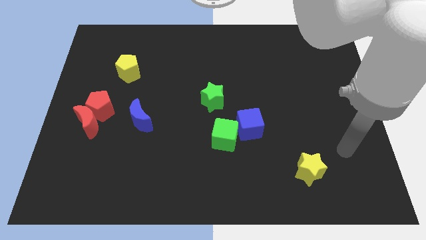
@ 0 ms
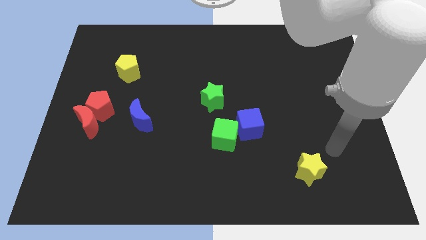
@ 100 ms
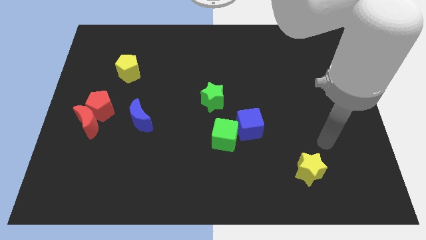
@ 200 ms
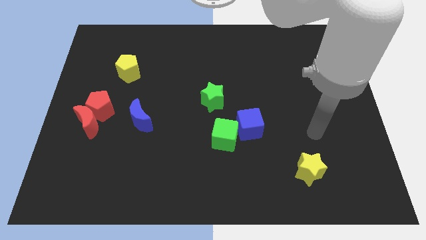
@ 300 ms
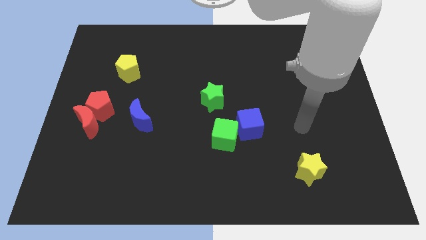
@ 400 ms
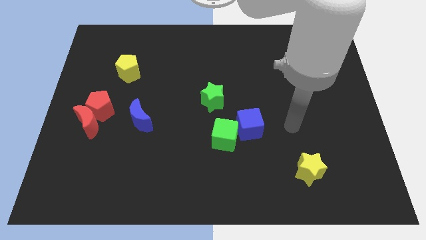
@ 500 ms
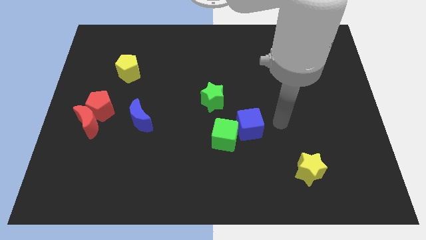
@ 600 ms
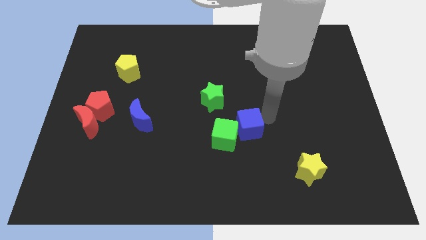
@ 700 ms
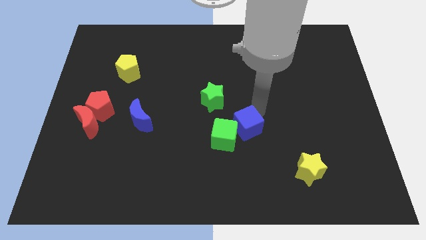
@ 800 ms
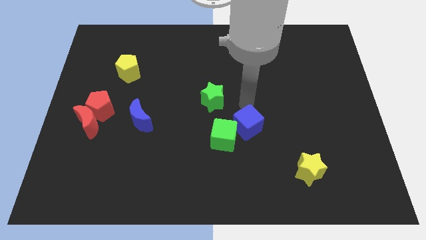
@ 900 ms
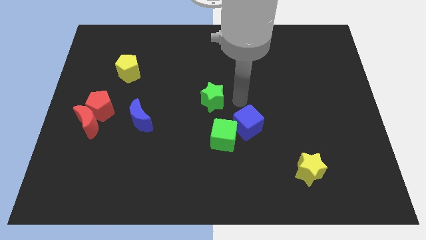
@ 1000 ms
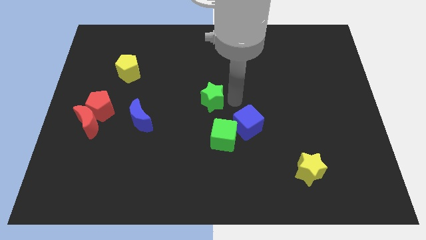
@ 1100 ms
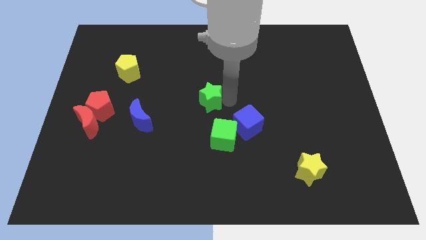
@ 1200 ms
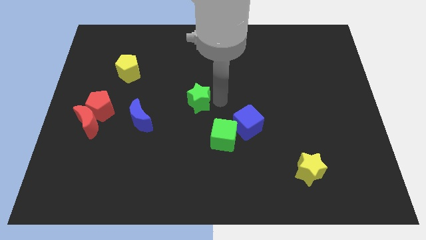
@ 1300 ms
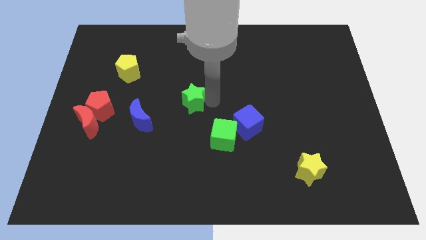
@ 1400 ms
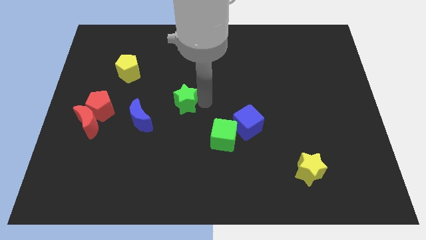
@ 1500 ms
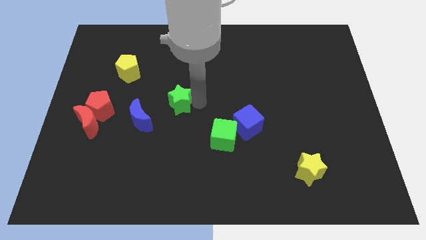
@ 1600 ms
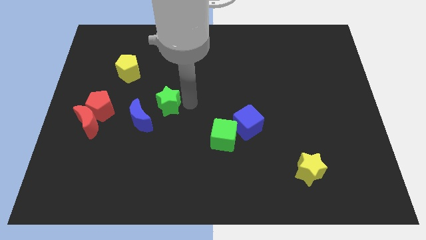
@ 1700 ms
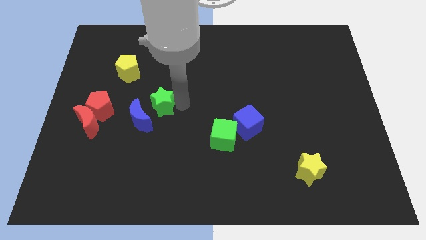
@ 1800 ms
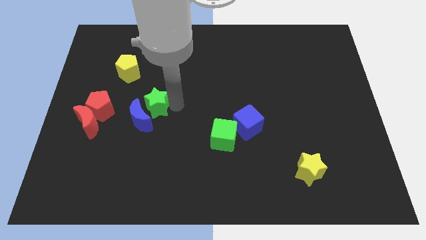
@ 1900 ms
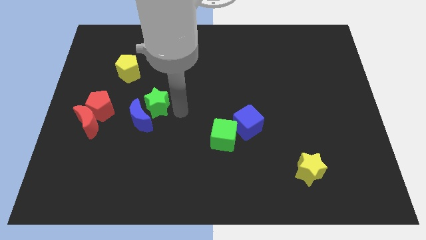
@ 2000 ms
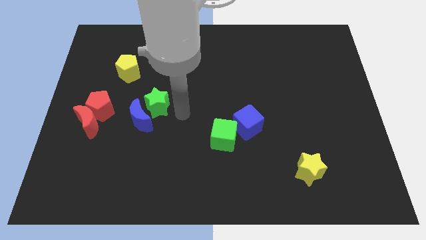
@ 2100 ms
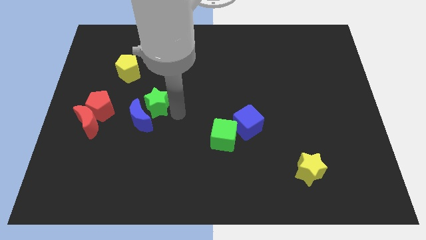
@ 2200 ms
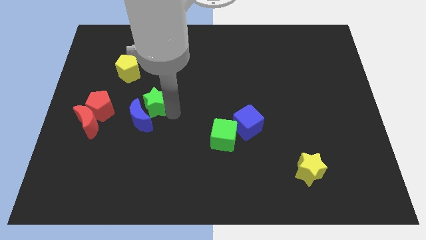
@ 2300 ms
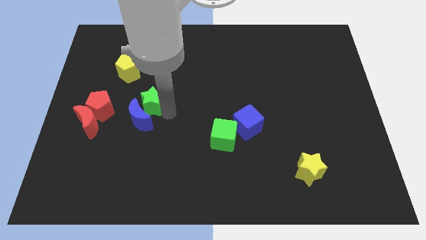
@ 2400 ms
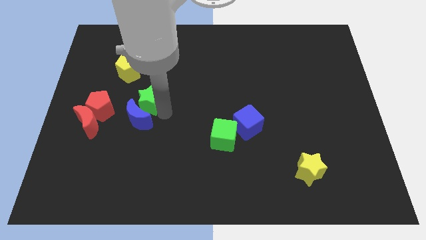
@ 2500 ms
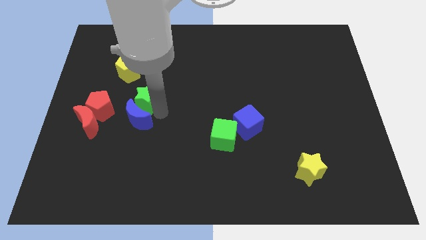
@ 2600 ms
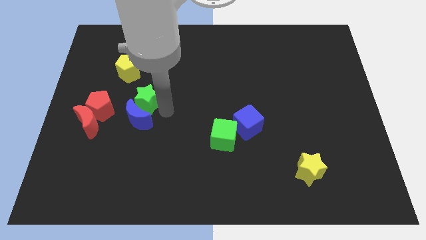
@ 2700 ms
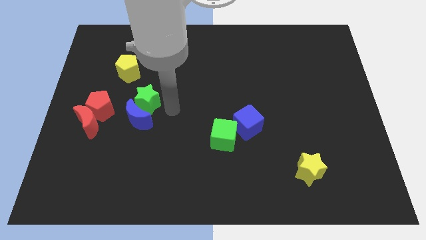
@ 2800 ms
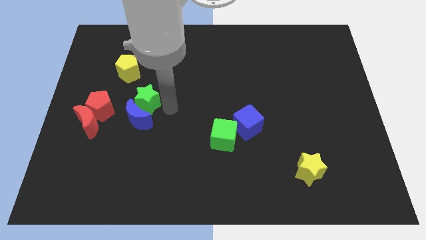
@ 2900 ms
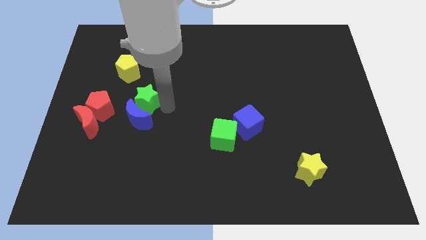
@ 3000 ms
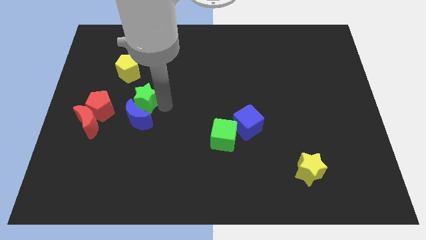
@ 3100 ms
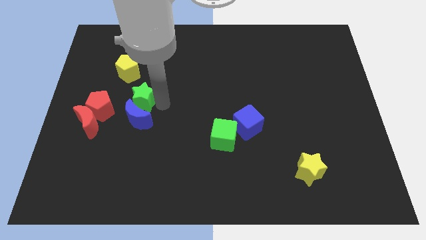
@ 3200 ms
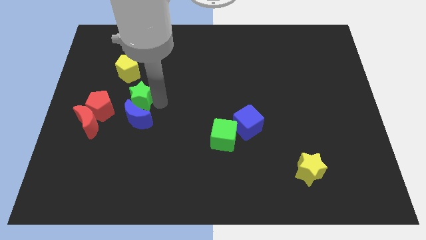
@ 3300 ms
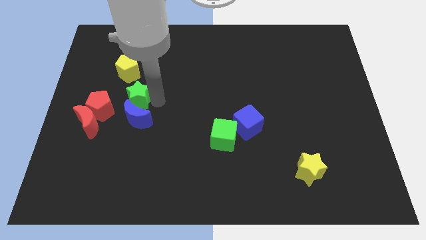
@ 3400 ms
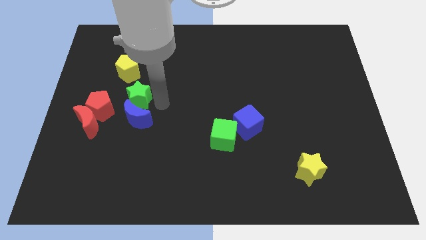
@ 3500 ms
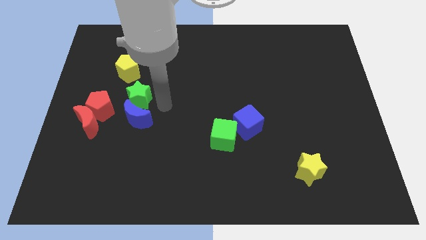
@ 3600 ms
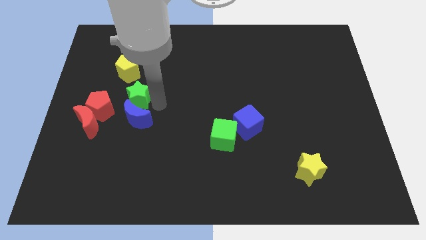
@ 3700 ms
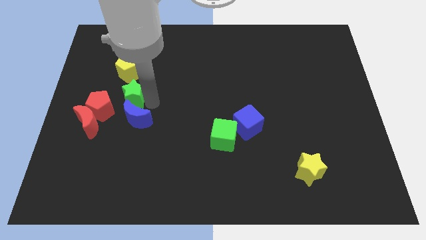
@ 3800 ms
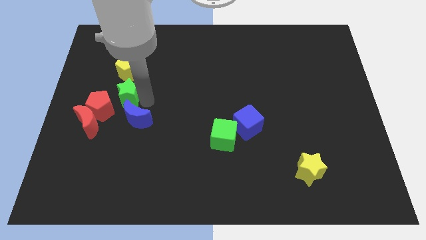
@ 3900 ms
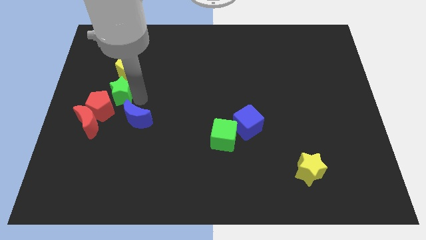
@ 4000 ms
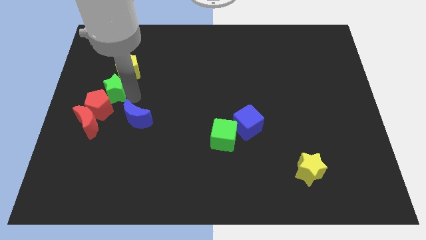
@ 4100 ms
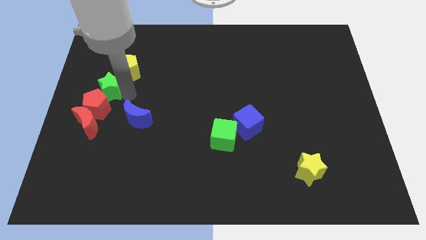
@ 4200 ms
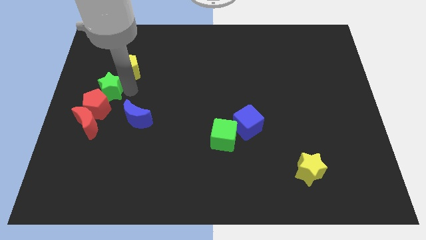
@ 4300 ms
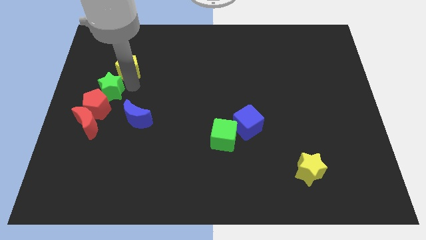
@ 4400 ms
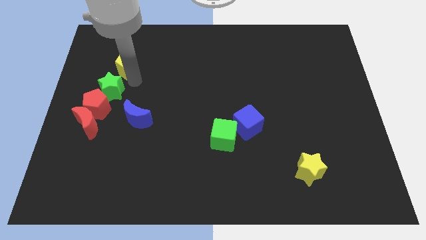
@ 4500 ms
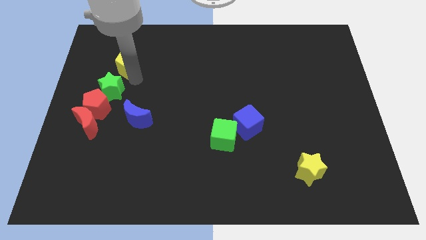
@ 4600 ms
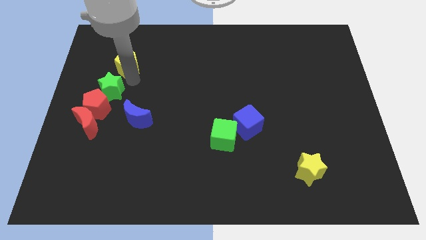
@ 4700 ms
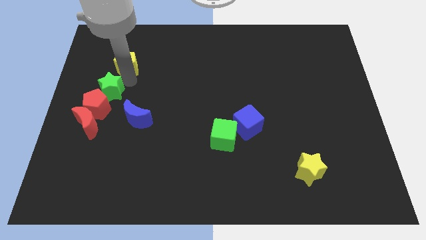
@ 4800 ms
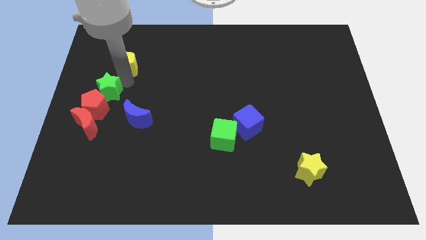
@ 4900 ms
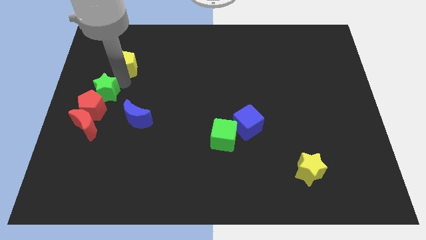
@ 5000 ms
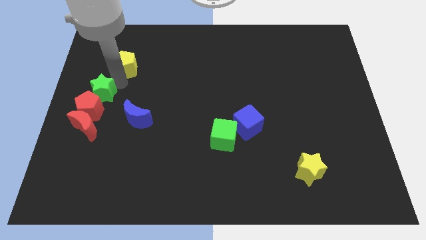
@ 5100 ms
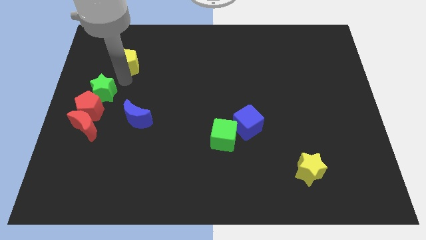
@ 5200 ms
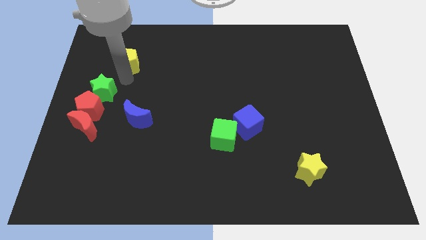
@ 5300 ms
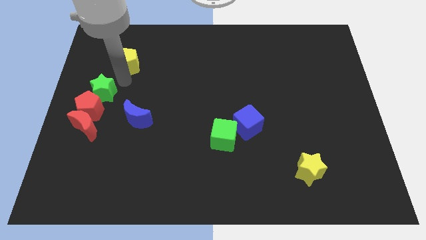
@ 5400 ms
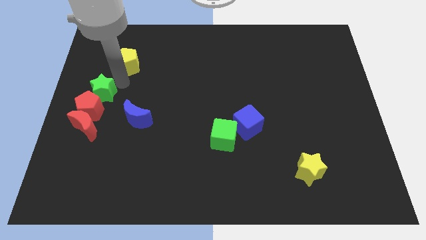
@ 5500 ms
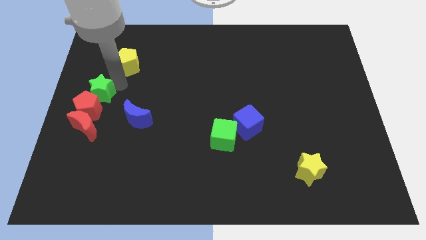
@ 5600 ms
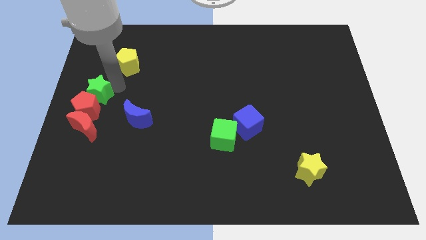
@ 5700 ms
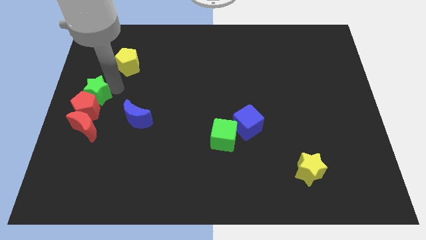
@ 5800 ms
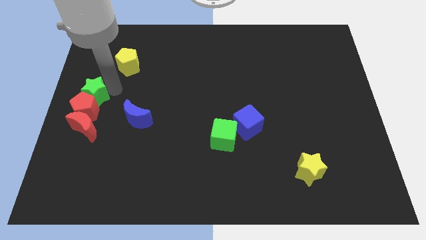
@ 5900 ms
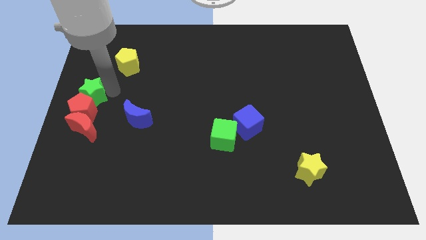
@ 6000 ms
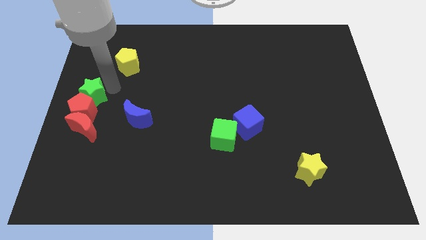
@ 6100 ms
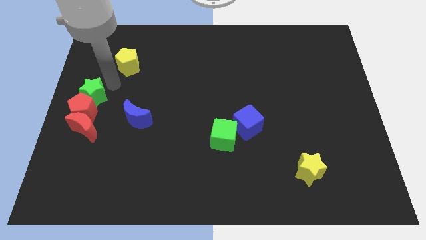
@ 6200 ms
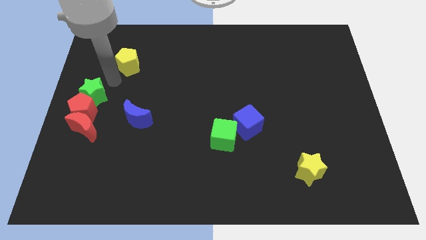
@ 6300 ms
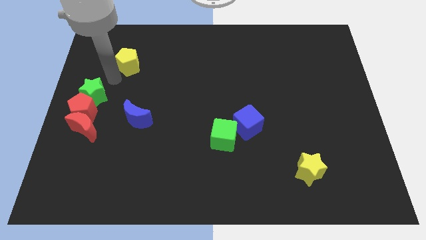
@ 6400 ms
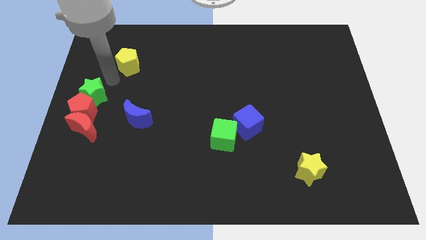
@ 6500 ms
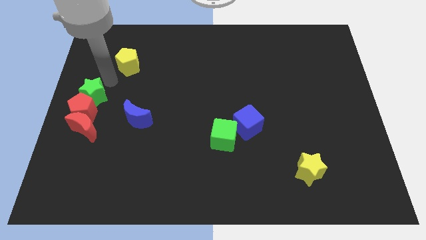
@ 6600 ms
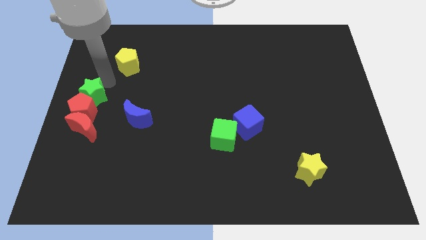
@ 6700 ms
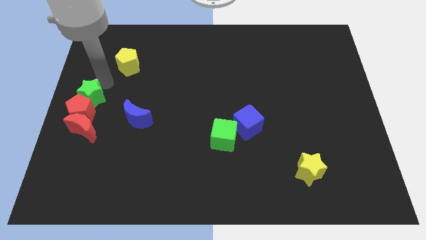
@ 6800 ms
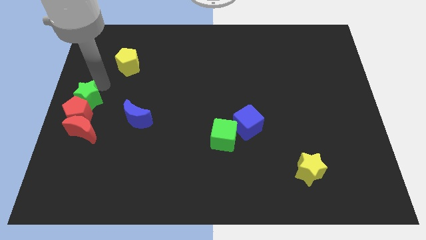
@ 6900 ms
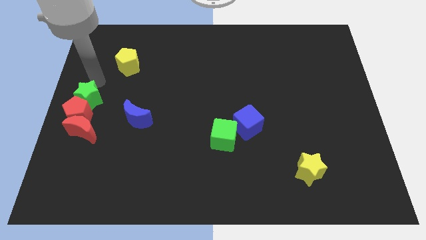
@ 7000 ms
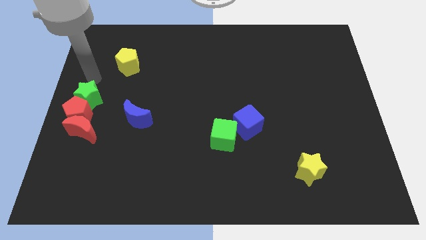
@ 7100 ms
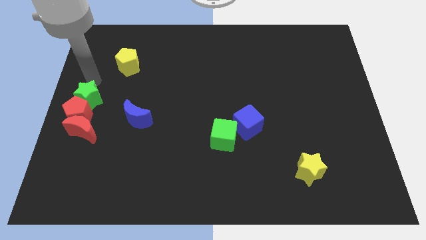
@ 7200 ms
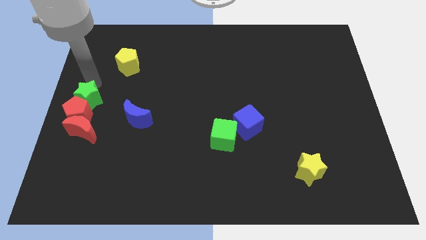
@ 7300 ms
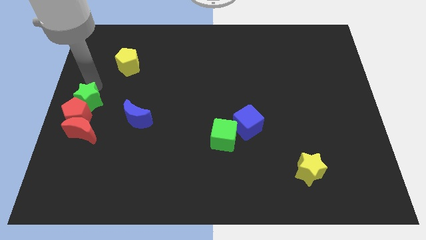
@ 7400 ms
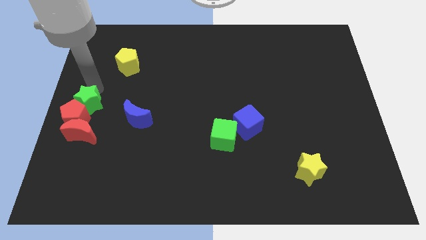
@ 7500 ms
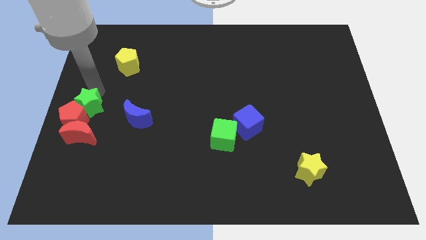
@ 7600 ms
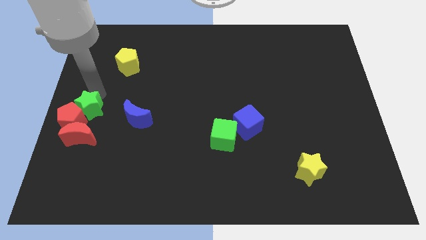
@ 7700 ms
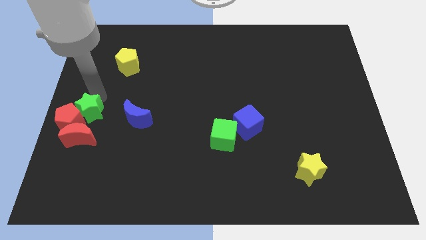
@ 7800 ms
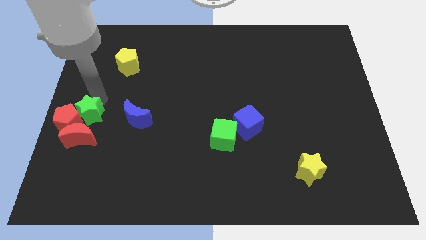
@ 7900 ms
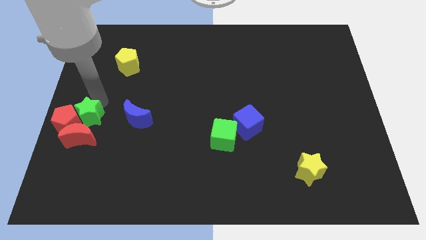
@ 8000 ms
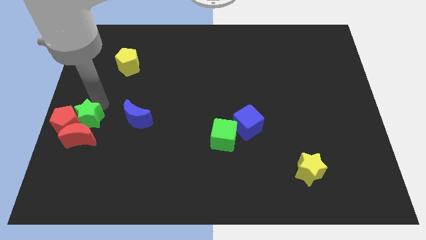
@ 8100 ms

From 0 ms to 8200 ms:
put the green star towards the red moon
